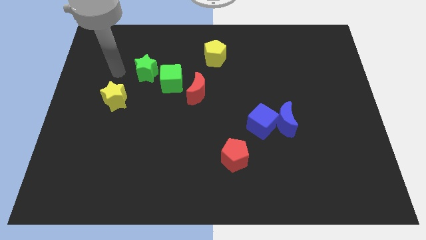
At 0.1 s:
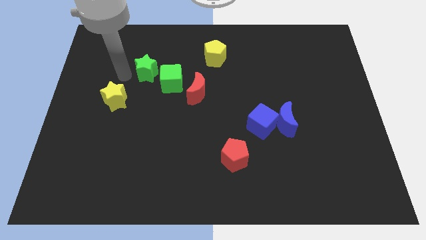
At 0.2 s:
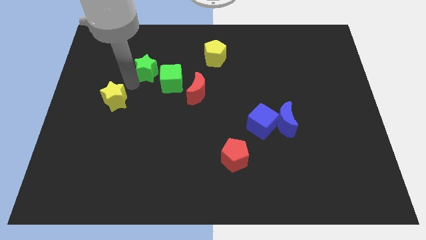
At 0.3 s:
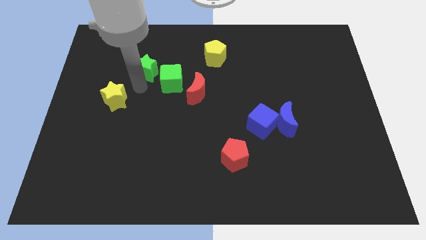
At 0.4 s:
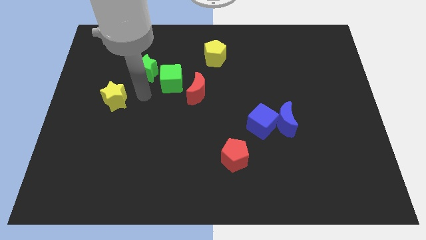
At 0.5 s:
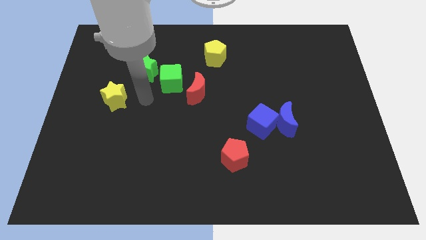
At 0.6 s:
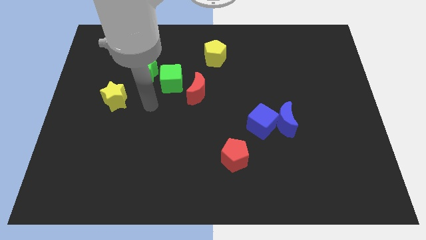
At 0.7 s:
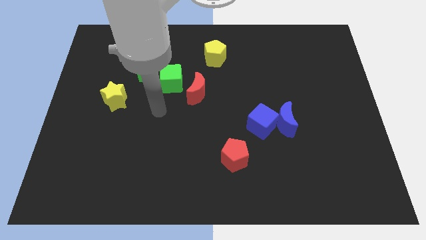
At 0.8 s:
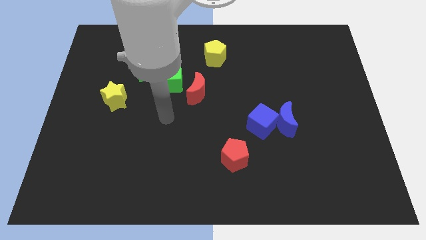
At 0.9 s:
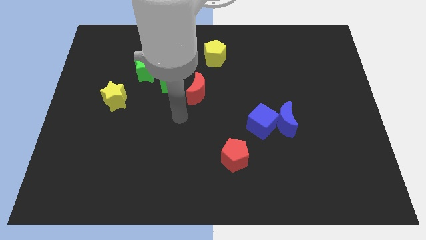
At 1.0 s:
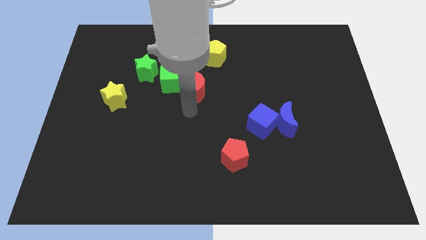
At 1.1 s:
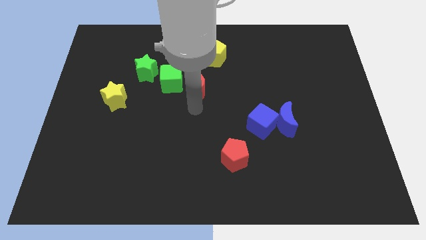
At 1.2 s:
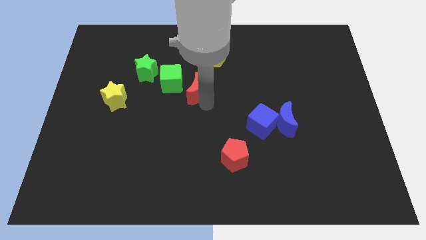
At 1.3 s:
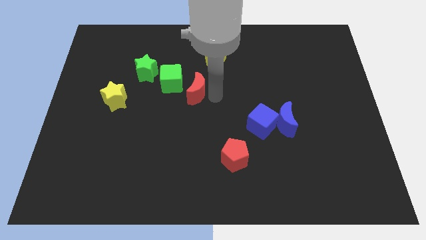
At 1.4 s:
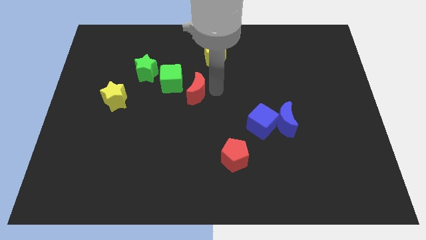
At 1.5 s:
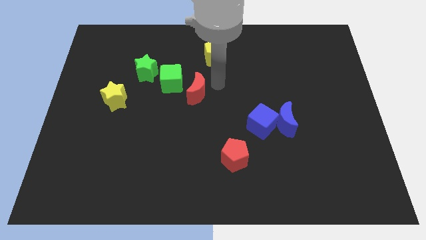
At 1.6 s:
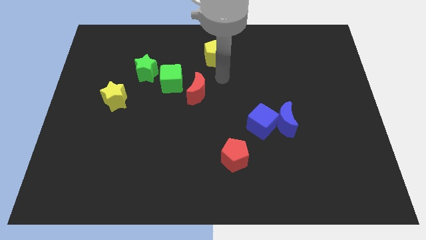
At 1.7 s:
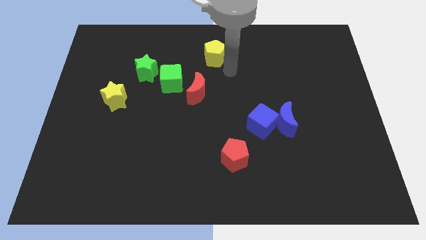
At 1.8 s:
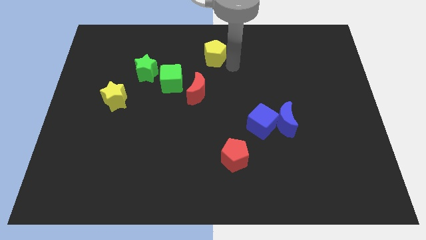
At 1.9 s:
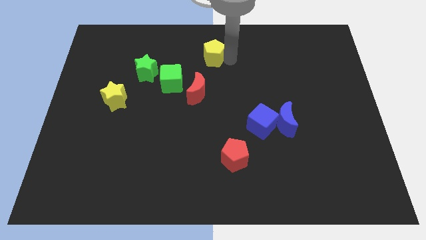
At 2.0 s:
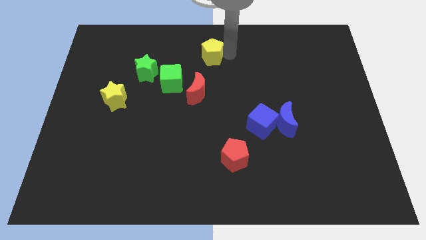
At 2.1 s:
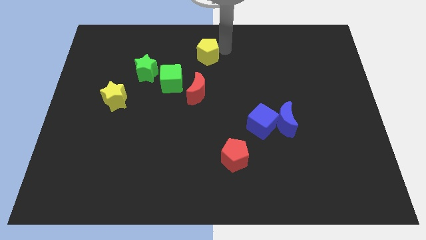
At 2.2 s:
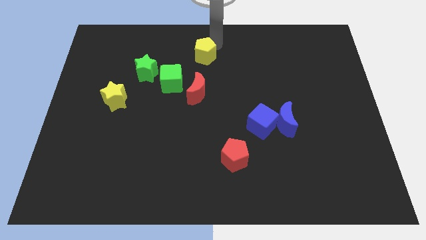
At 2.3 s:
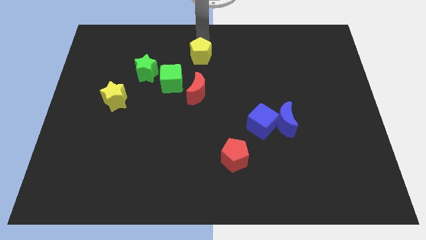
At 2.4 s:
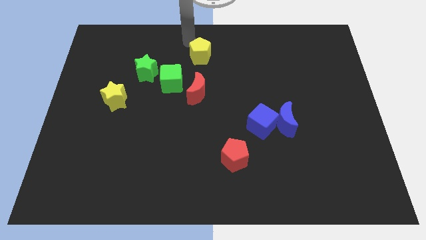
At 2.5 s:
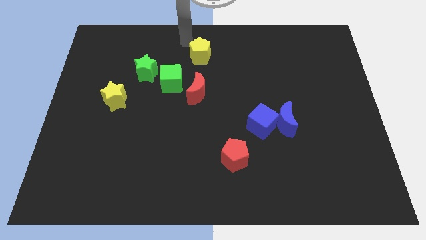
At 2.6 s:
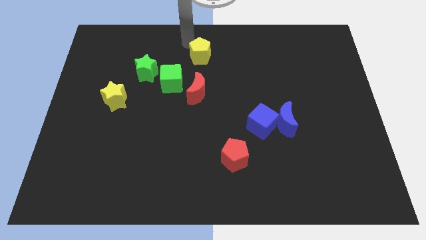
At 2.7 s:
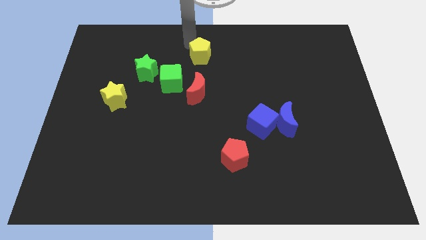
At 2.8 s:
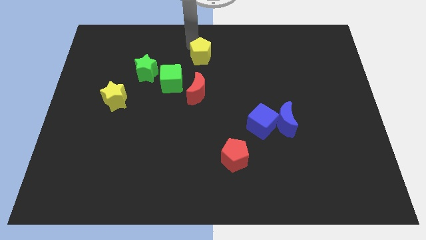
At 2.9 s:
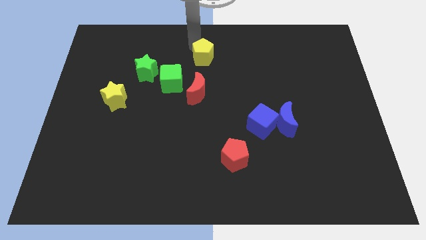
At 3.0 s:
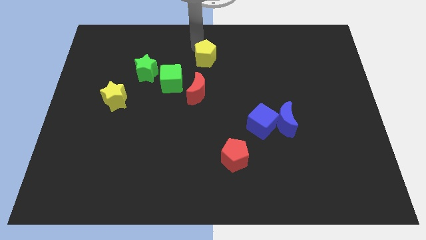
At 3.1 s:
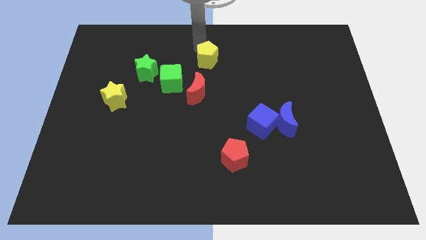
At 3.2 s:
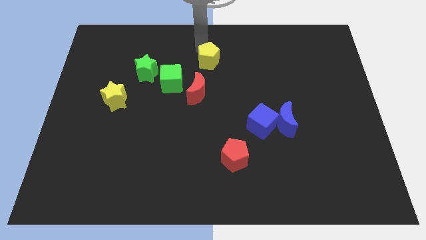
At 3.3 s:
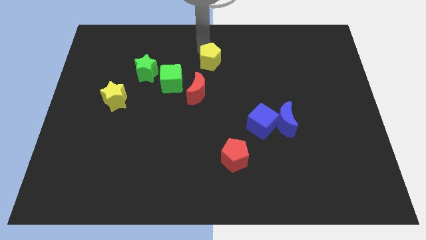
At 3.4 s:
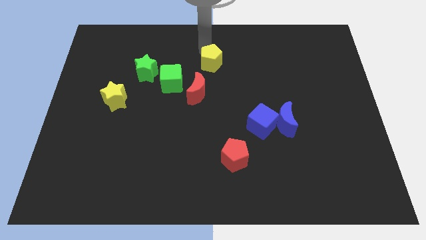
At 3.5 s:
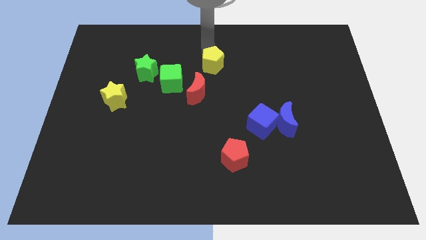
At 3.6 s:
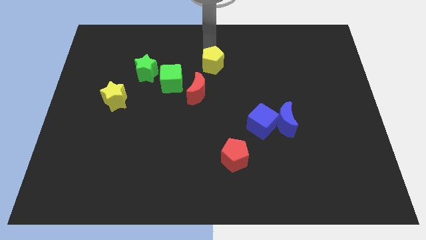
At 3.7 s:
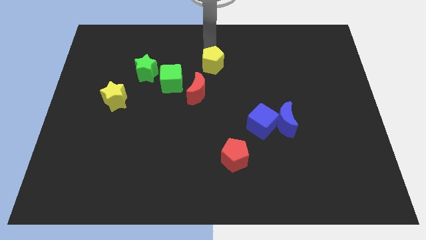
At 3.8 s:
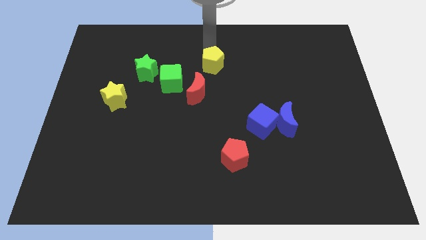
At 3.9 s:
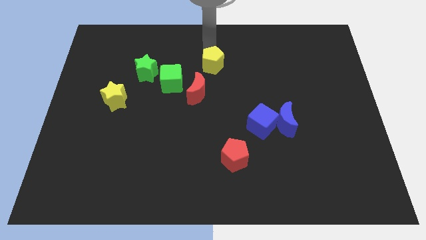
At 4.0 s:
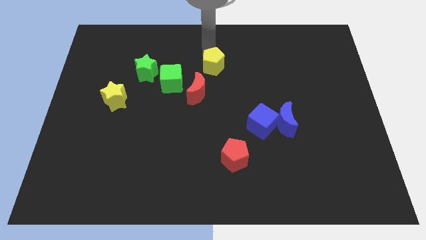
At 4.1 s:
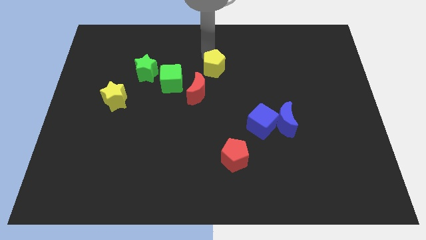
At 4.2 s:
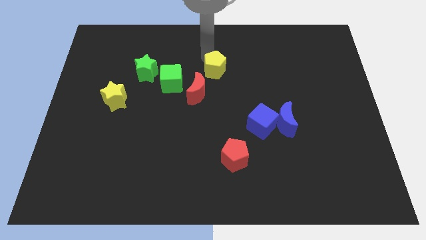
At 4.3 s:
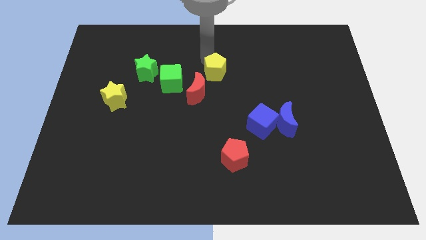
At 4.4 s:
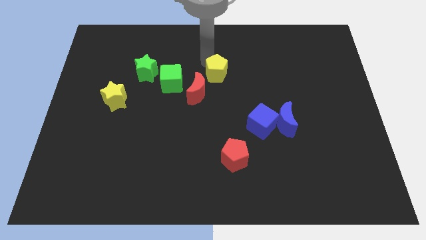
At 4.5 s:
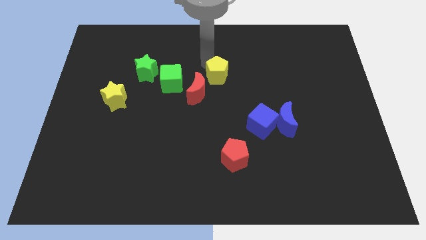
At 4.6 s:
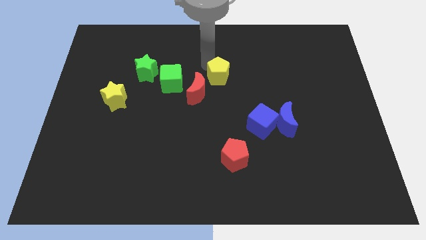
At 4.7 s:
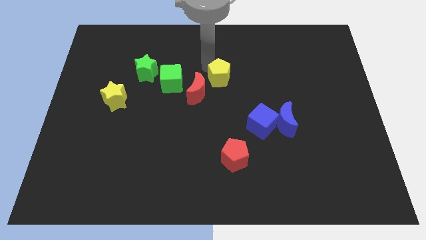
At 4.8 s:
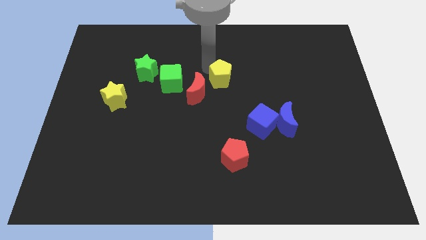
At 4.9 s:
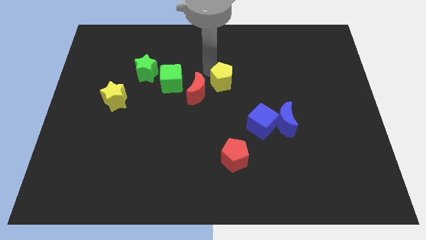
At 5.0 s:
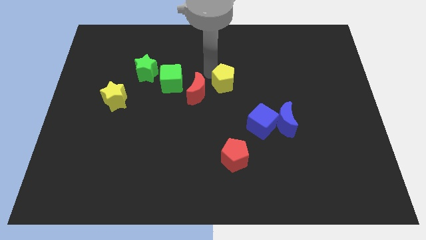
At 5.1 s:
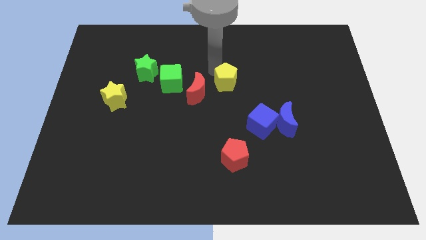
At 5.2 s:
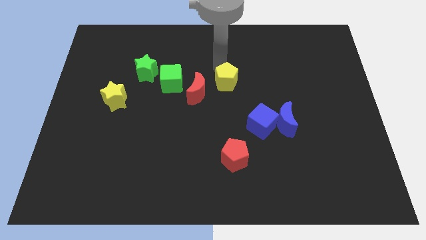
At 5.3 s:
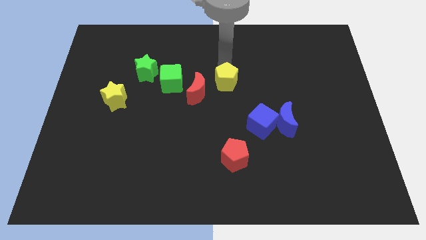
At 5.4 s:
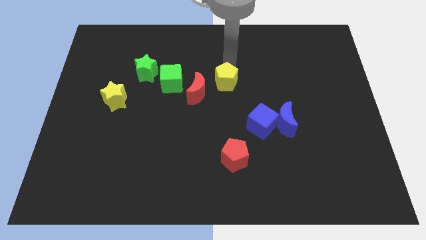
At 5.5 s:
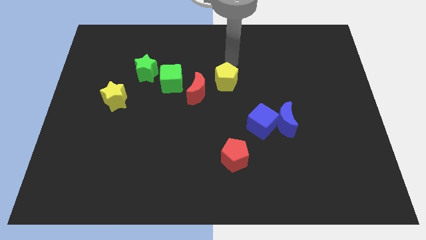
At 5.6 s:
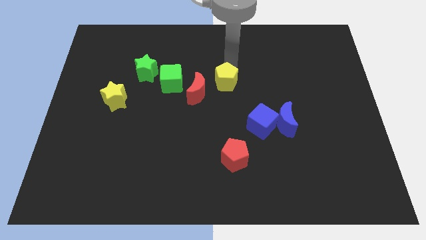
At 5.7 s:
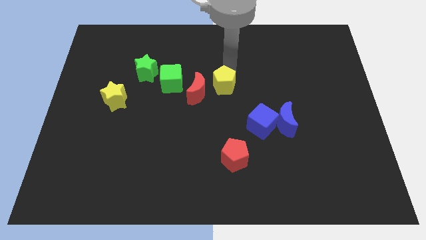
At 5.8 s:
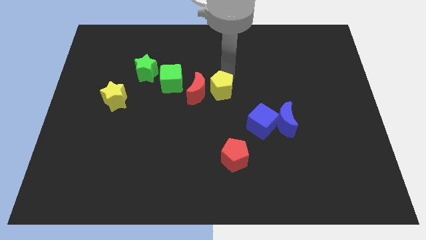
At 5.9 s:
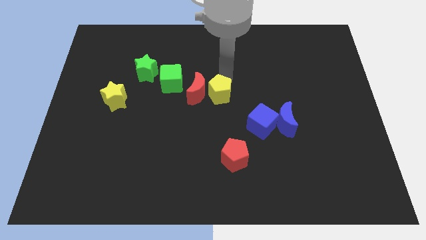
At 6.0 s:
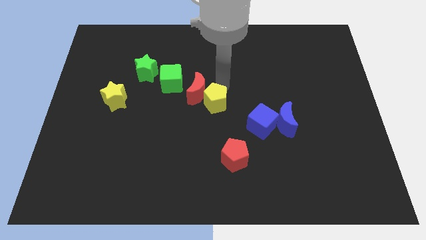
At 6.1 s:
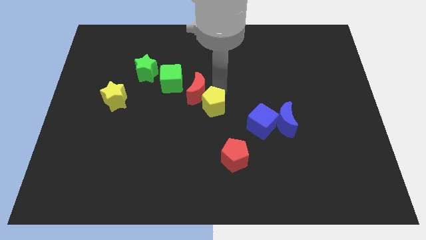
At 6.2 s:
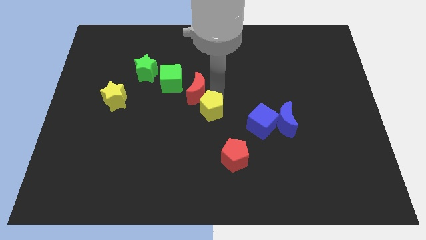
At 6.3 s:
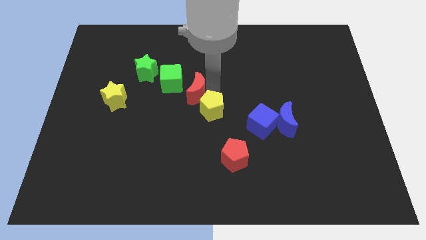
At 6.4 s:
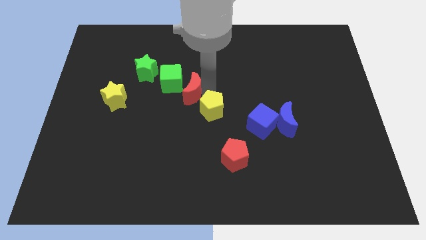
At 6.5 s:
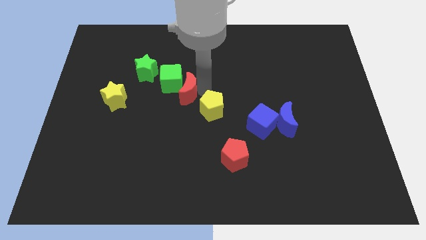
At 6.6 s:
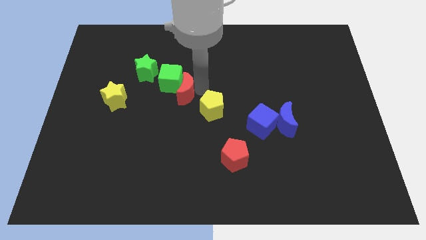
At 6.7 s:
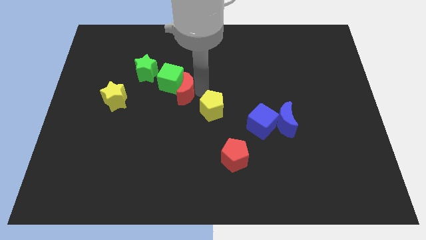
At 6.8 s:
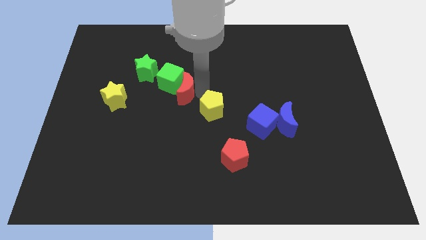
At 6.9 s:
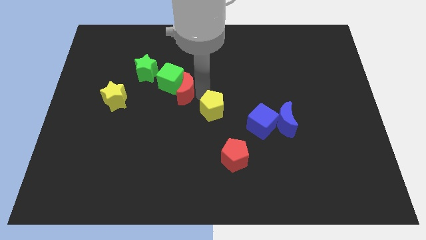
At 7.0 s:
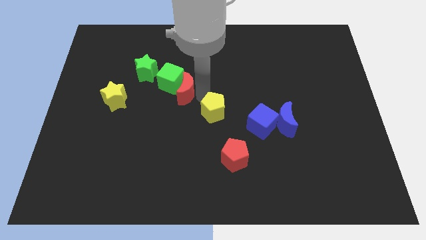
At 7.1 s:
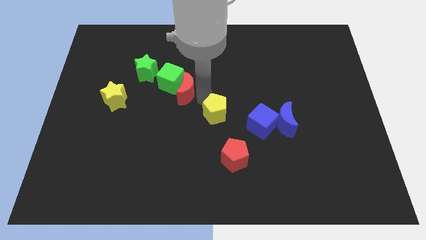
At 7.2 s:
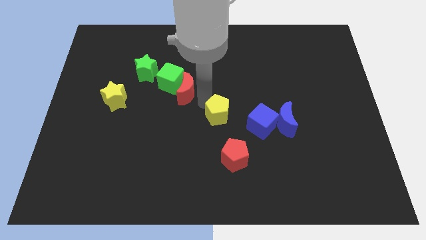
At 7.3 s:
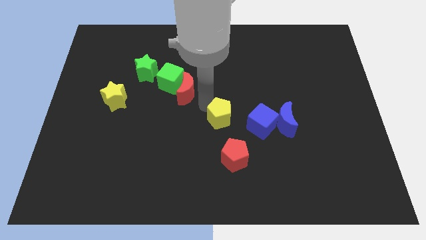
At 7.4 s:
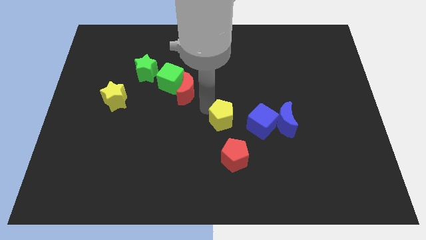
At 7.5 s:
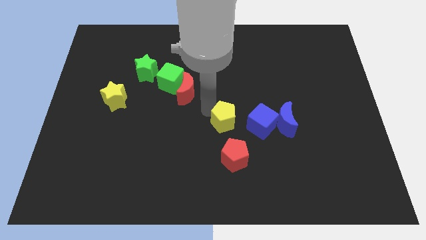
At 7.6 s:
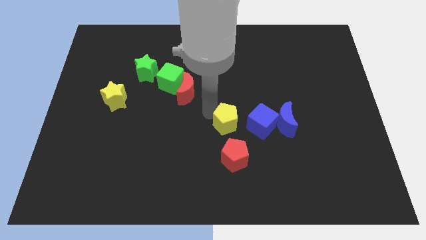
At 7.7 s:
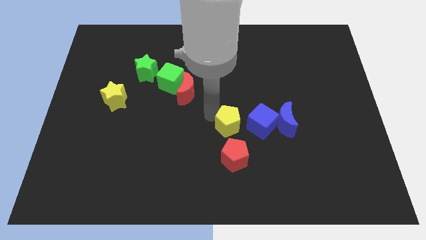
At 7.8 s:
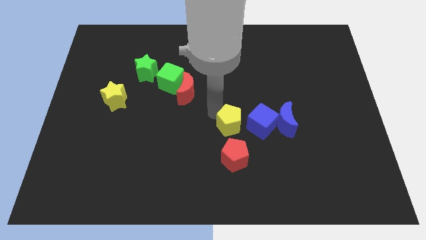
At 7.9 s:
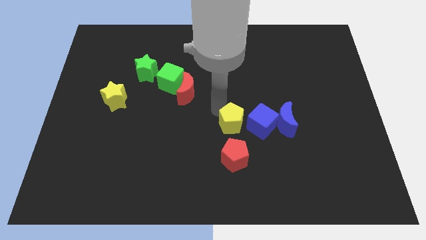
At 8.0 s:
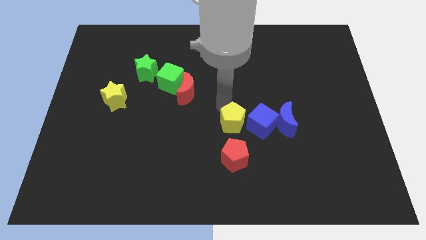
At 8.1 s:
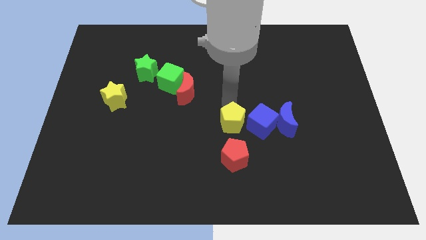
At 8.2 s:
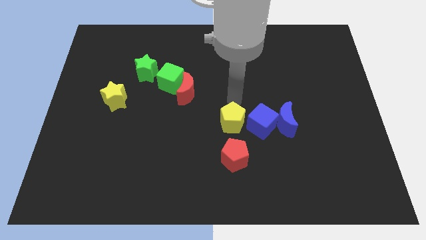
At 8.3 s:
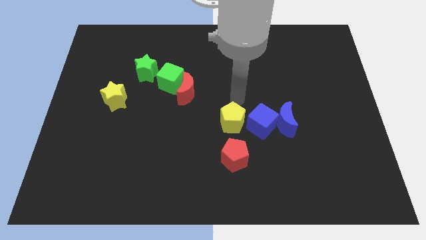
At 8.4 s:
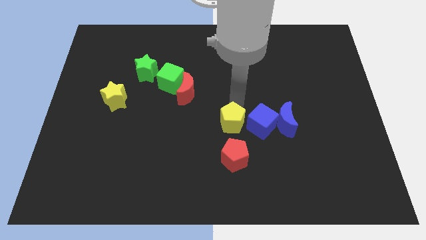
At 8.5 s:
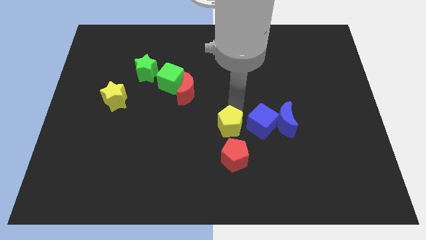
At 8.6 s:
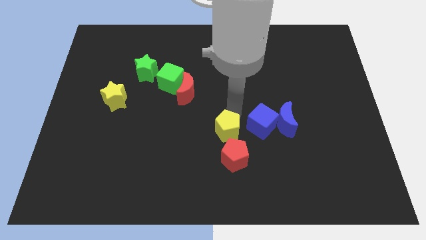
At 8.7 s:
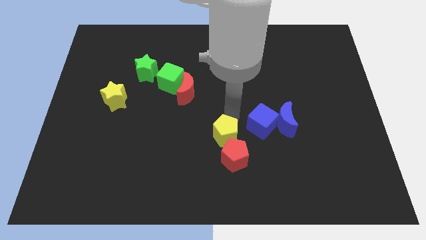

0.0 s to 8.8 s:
put the yellow pentagon to the red pentagon
